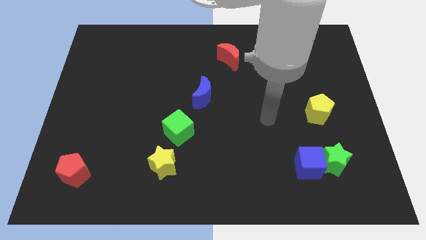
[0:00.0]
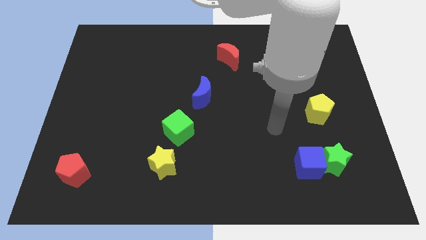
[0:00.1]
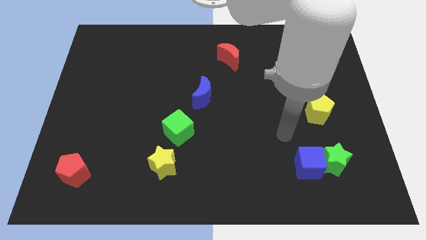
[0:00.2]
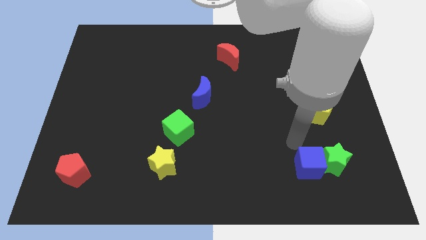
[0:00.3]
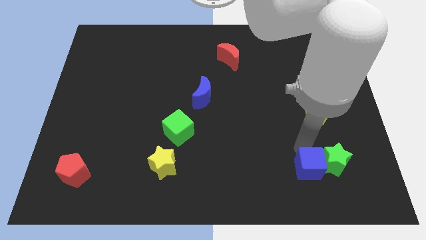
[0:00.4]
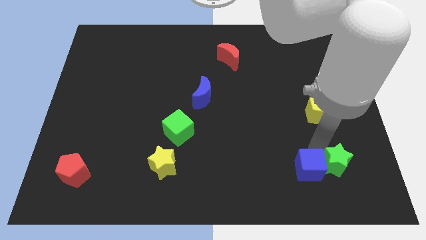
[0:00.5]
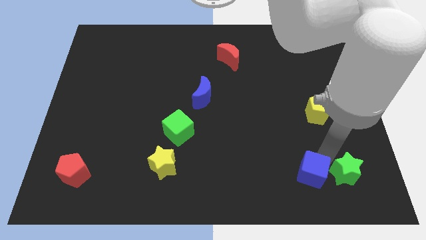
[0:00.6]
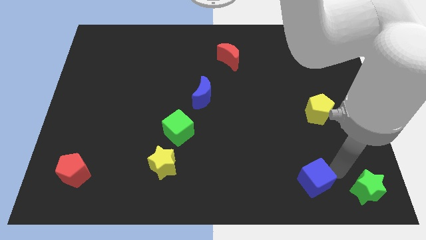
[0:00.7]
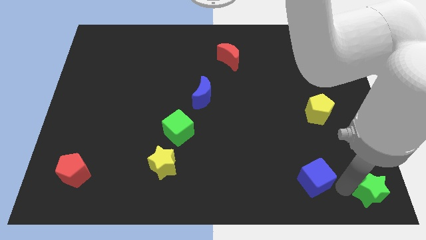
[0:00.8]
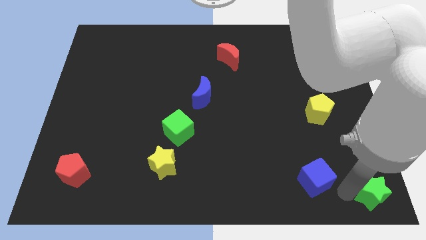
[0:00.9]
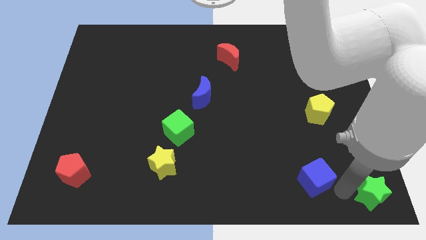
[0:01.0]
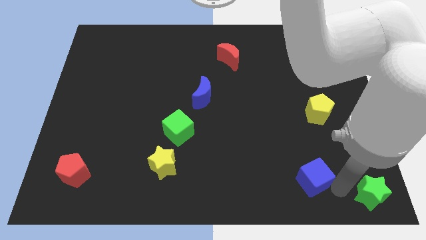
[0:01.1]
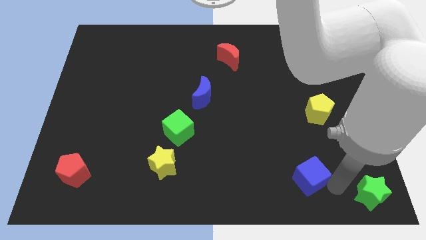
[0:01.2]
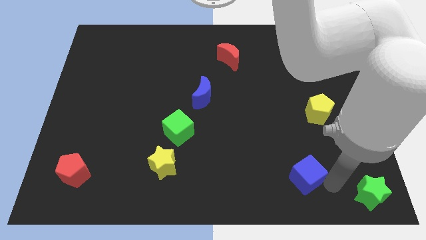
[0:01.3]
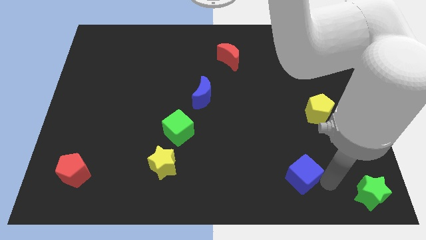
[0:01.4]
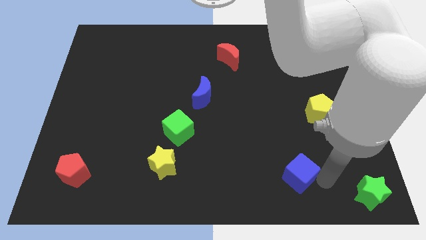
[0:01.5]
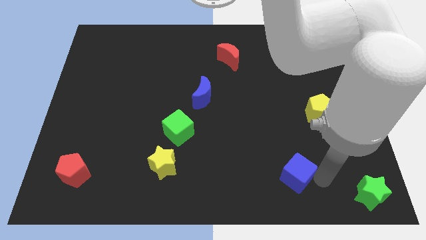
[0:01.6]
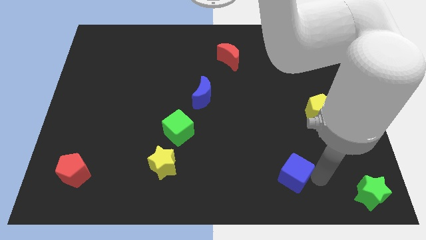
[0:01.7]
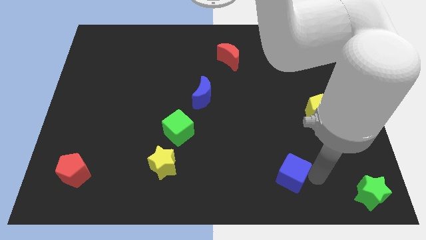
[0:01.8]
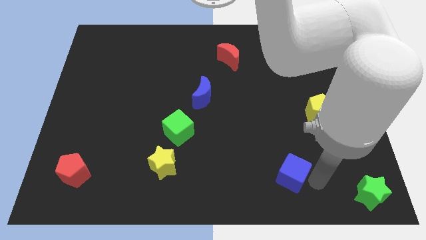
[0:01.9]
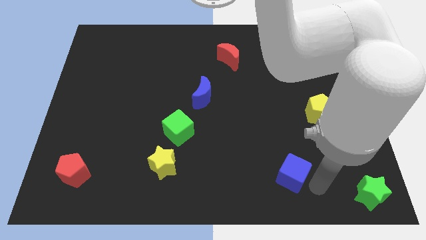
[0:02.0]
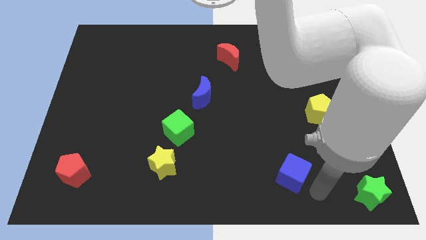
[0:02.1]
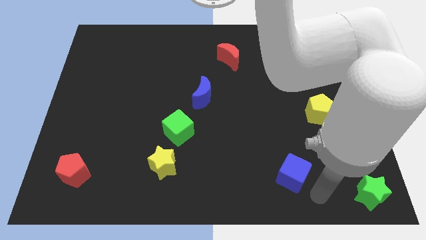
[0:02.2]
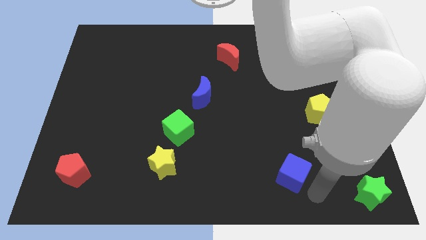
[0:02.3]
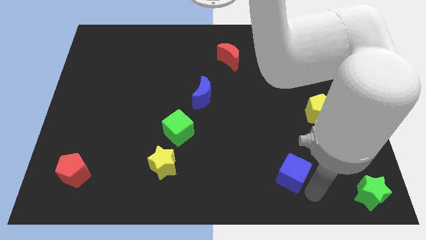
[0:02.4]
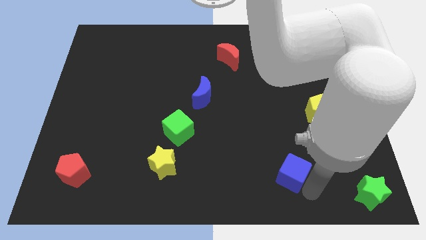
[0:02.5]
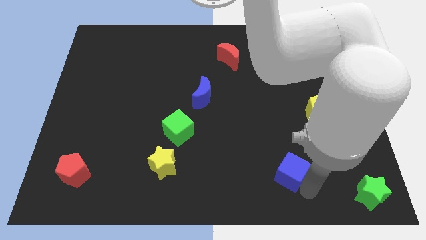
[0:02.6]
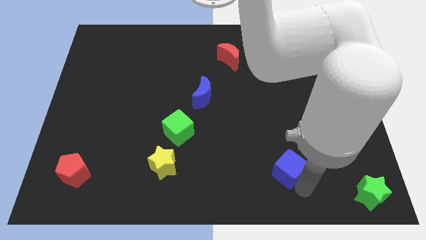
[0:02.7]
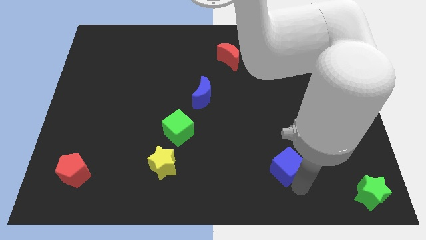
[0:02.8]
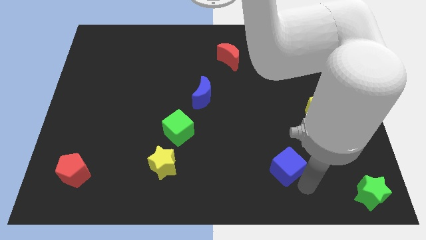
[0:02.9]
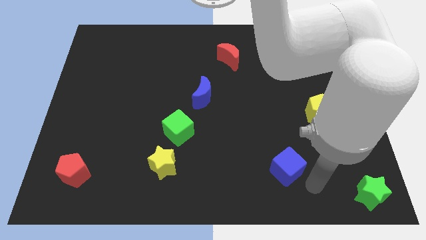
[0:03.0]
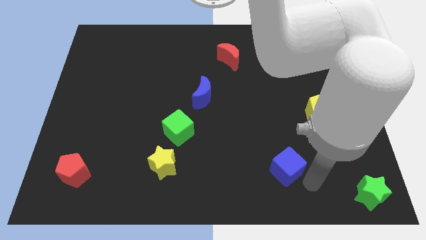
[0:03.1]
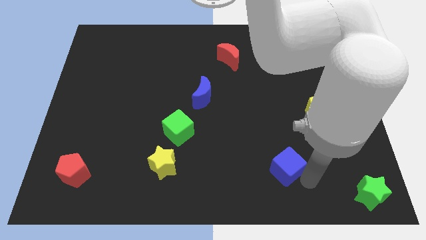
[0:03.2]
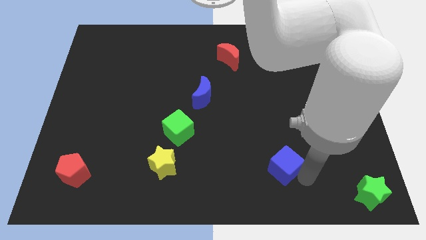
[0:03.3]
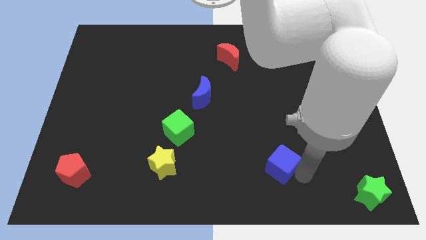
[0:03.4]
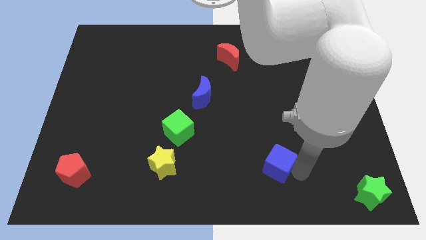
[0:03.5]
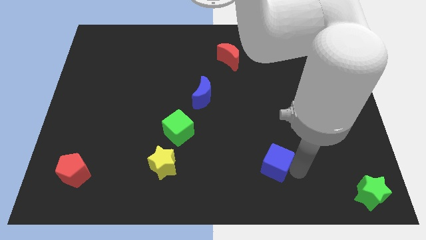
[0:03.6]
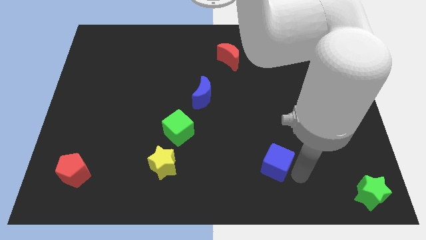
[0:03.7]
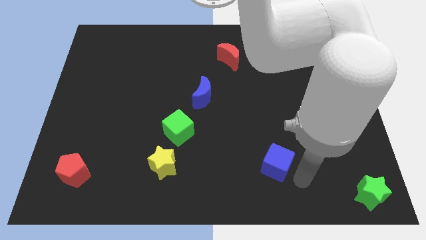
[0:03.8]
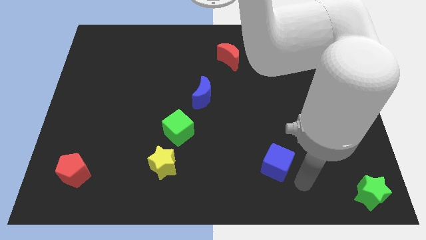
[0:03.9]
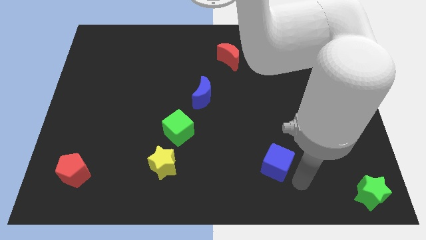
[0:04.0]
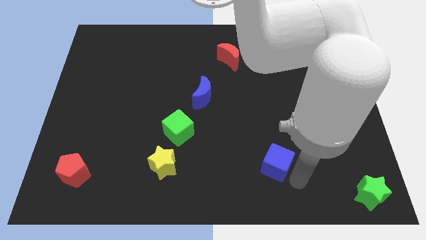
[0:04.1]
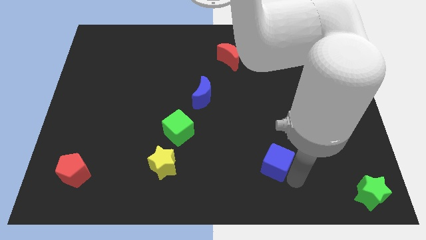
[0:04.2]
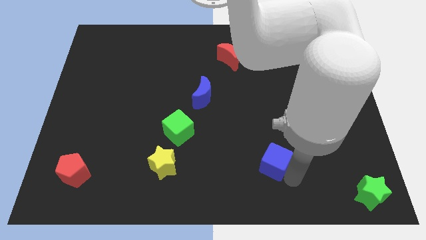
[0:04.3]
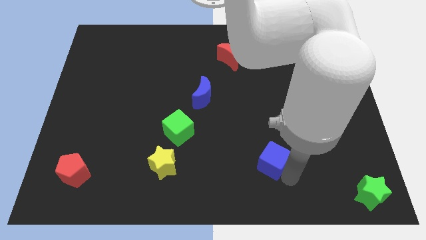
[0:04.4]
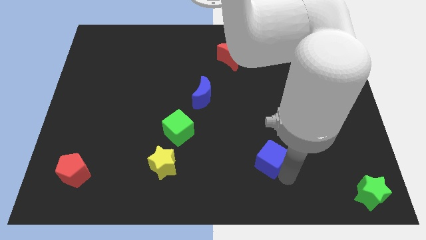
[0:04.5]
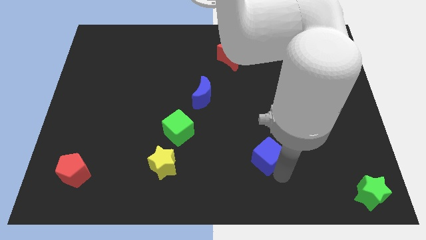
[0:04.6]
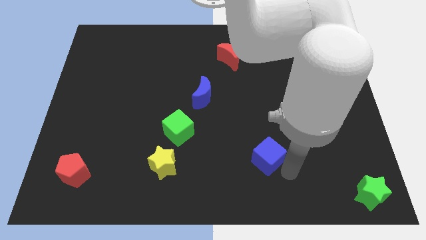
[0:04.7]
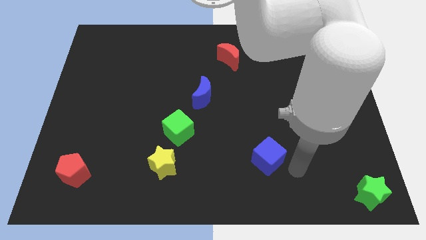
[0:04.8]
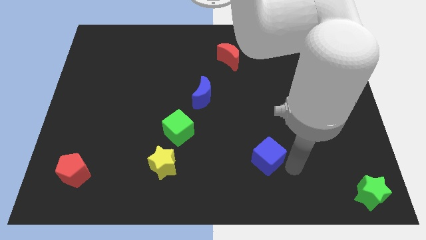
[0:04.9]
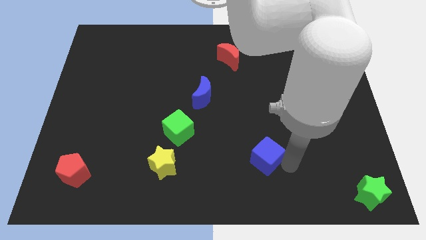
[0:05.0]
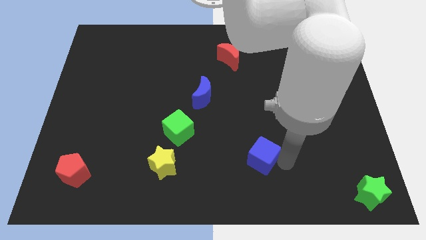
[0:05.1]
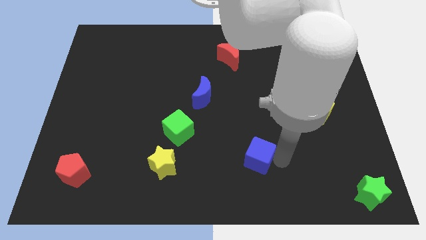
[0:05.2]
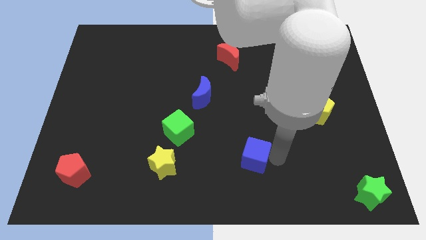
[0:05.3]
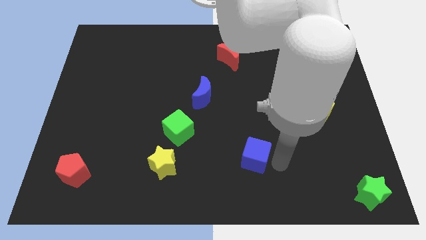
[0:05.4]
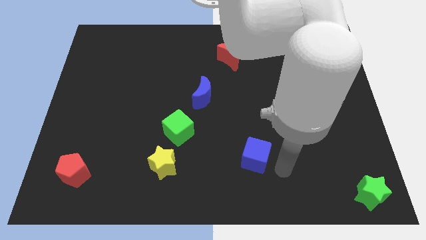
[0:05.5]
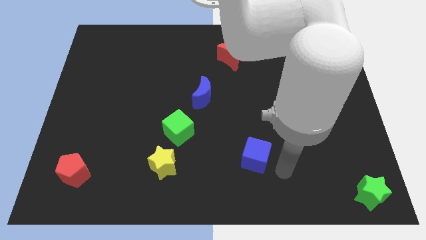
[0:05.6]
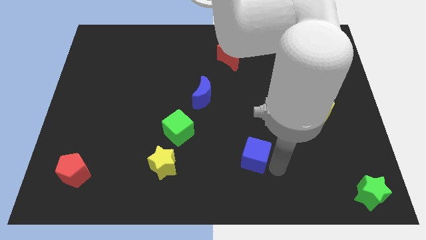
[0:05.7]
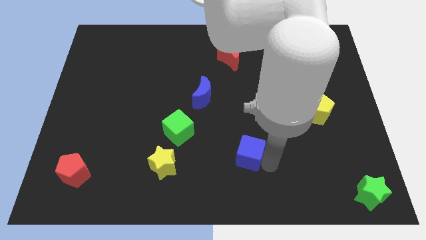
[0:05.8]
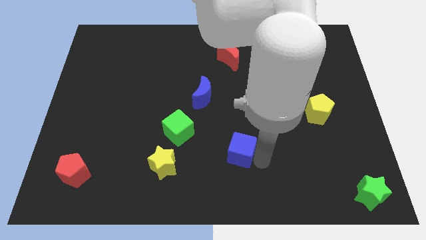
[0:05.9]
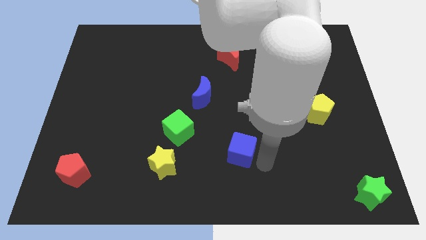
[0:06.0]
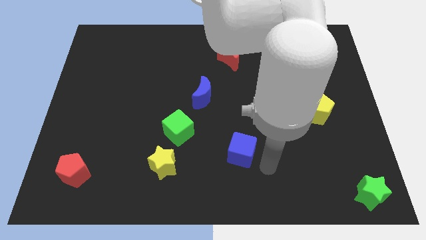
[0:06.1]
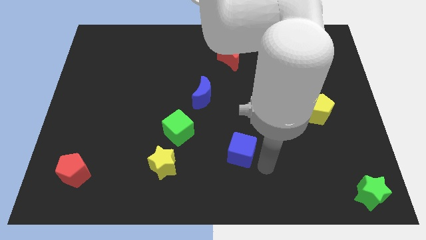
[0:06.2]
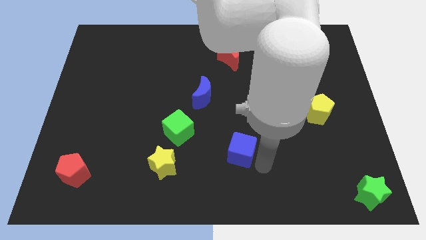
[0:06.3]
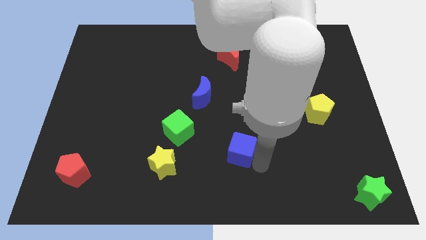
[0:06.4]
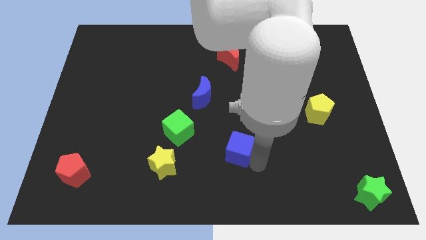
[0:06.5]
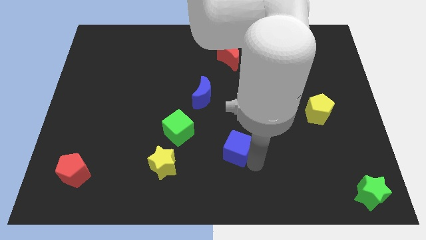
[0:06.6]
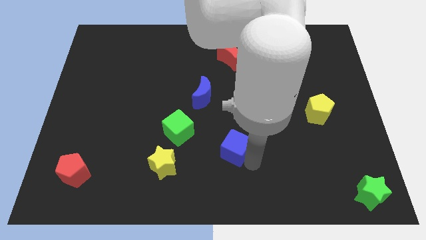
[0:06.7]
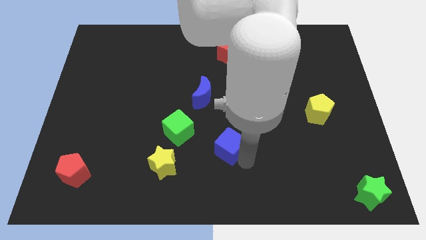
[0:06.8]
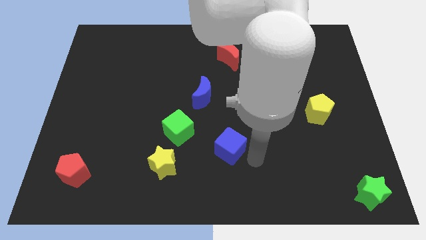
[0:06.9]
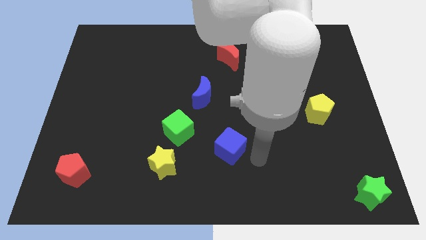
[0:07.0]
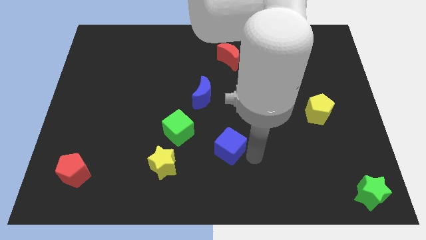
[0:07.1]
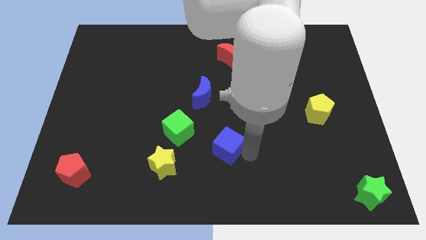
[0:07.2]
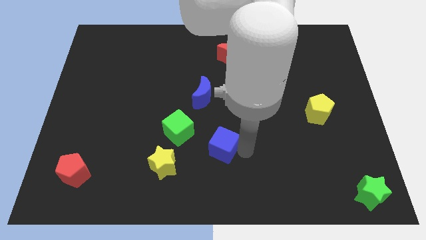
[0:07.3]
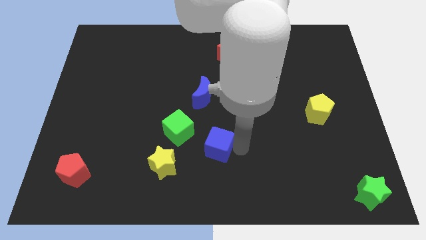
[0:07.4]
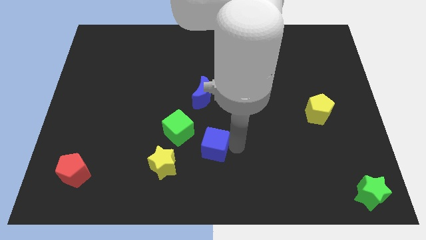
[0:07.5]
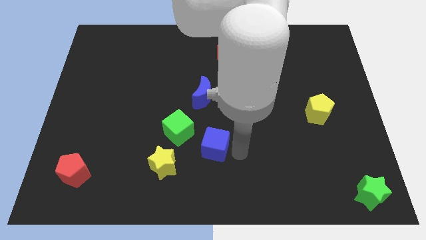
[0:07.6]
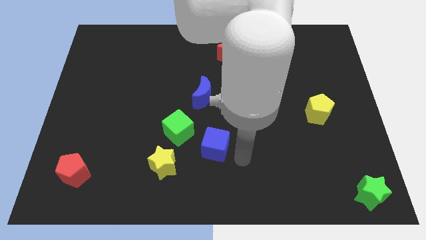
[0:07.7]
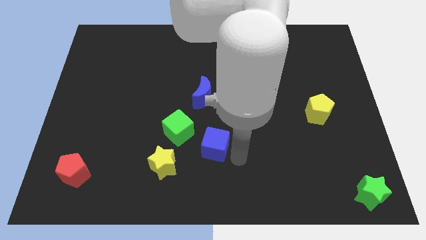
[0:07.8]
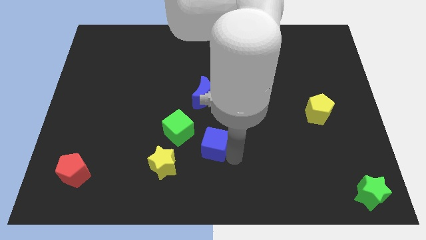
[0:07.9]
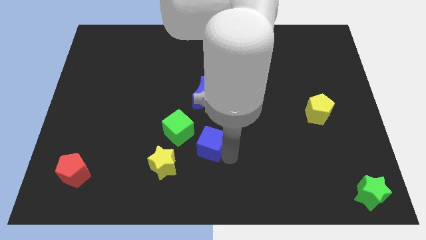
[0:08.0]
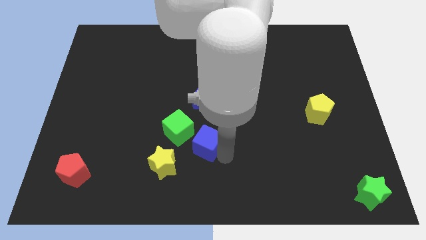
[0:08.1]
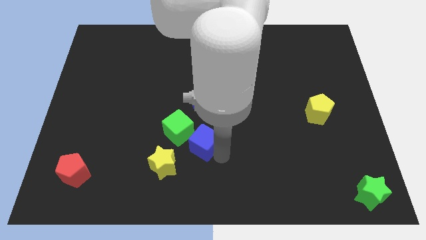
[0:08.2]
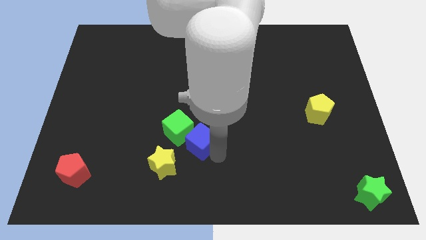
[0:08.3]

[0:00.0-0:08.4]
put the blue cube next to the green cube
